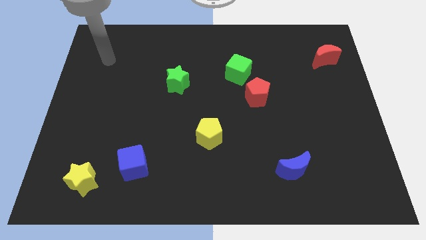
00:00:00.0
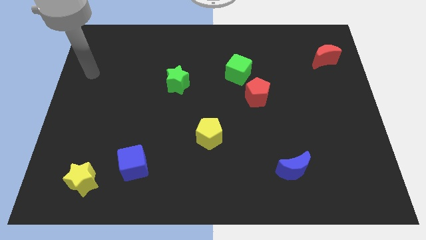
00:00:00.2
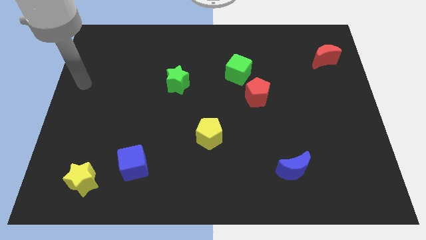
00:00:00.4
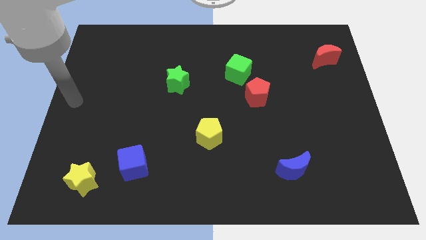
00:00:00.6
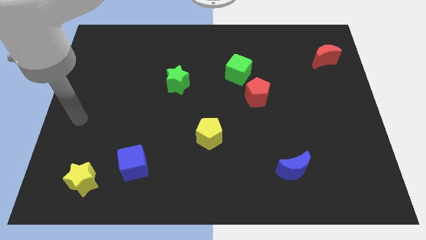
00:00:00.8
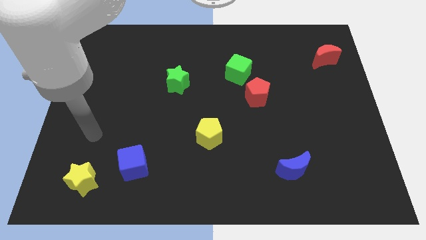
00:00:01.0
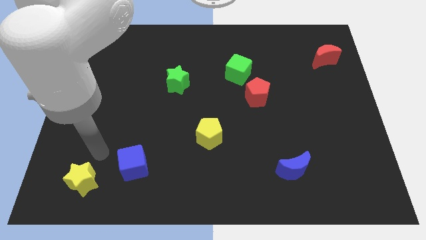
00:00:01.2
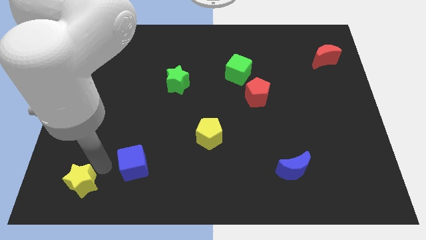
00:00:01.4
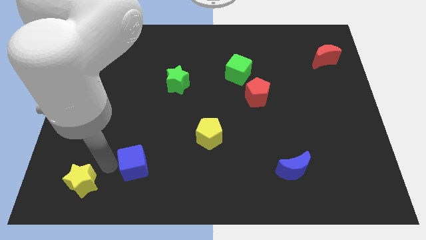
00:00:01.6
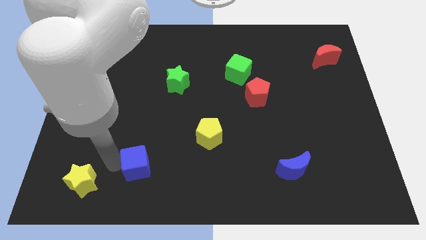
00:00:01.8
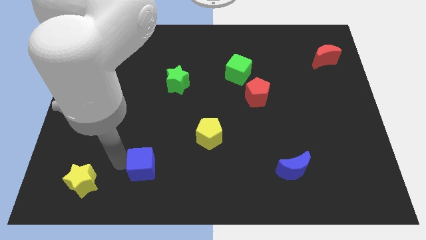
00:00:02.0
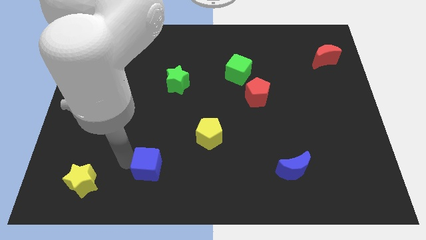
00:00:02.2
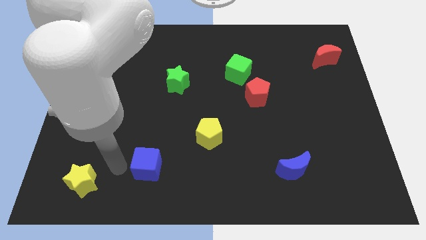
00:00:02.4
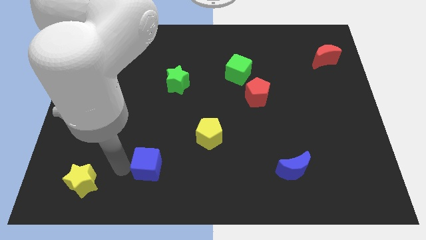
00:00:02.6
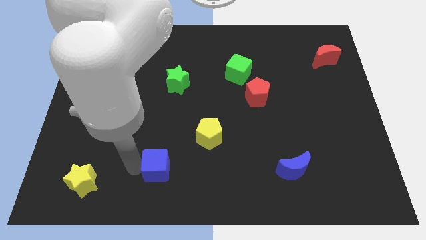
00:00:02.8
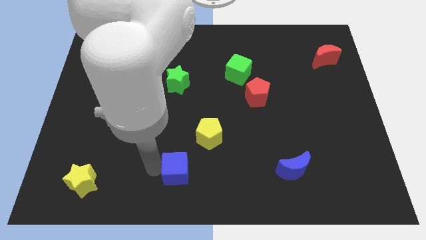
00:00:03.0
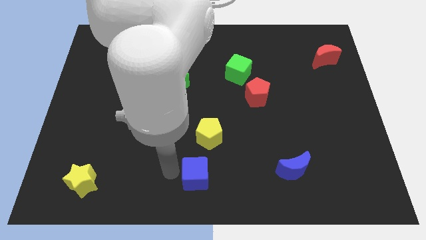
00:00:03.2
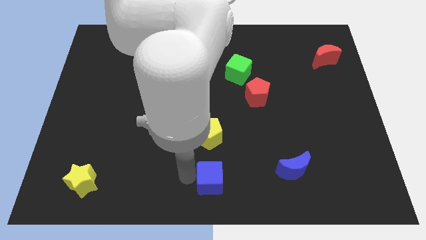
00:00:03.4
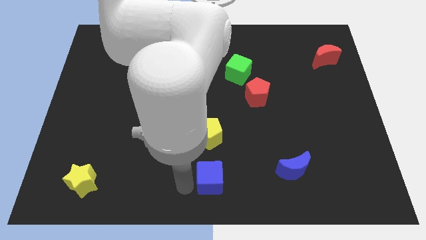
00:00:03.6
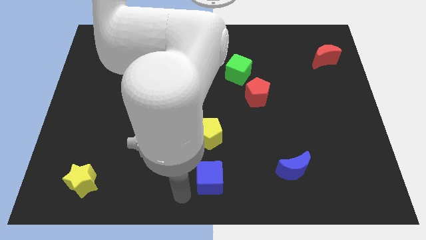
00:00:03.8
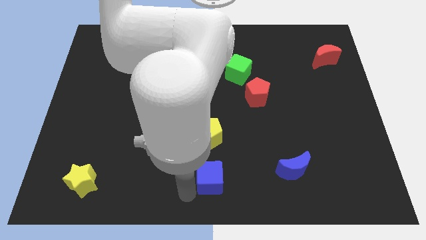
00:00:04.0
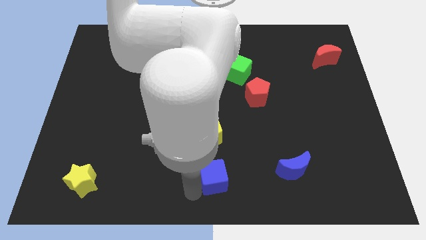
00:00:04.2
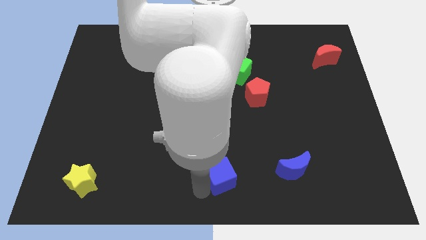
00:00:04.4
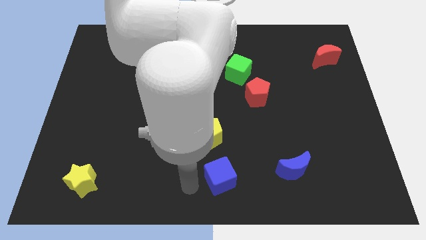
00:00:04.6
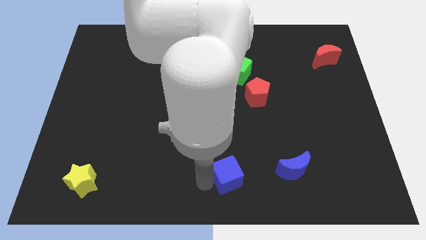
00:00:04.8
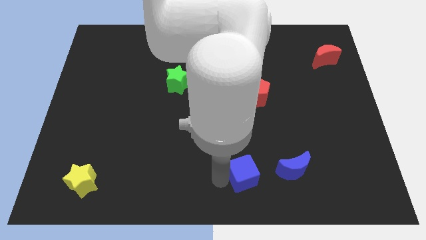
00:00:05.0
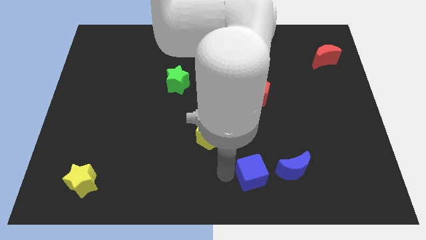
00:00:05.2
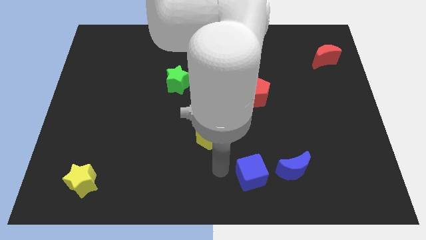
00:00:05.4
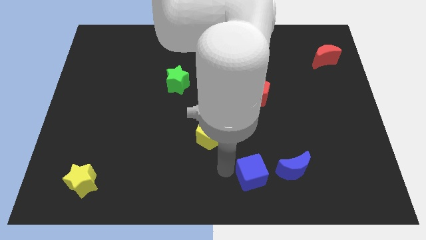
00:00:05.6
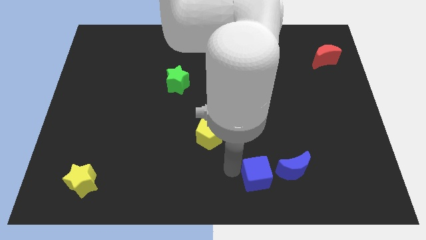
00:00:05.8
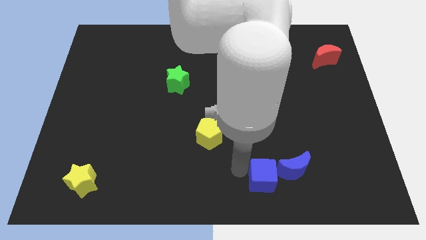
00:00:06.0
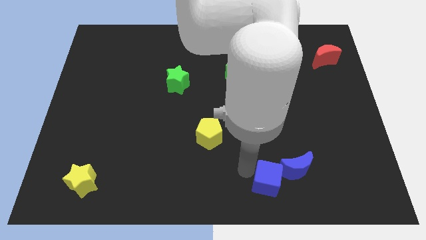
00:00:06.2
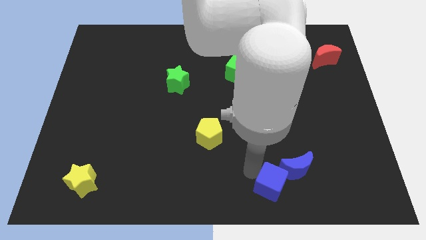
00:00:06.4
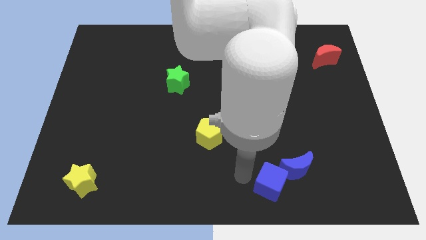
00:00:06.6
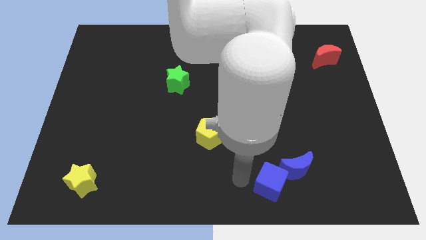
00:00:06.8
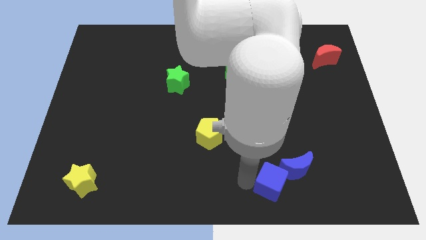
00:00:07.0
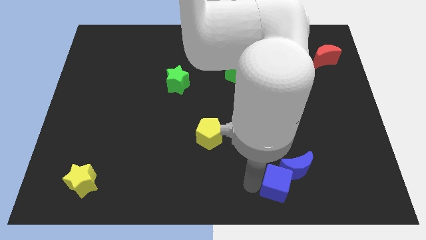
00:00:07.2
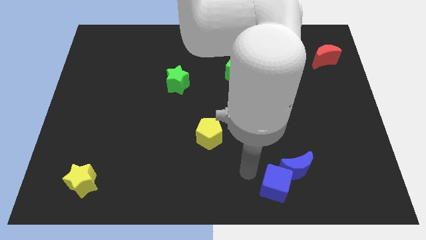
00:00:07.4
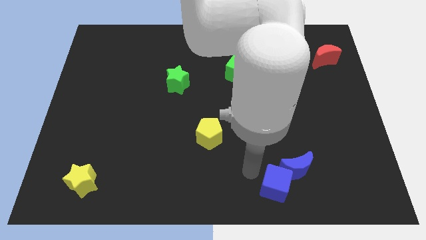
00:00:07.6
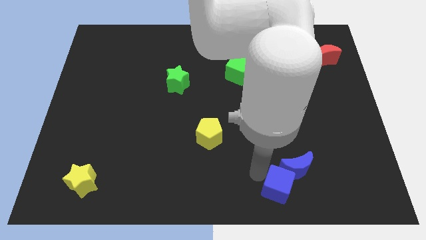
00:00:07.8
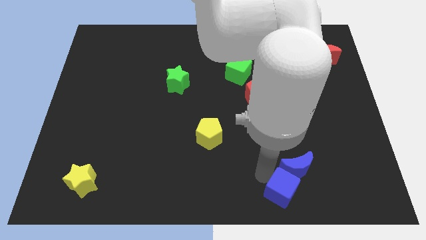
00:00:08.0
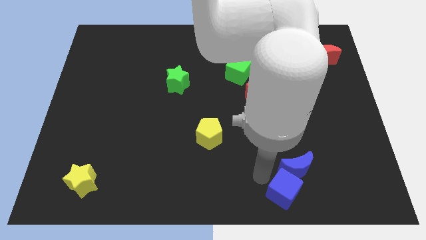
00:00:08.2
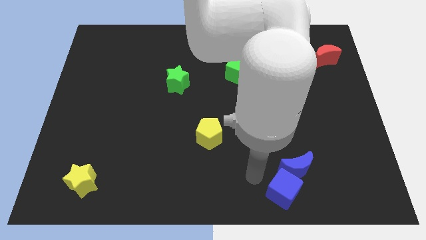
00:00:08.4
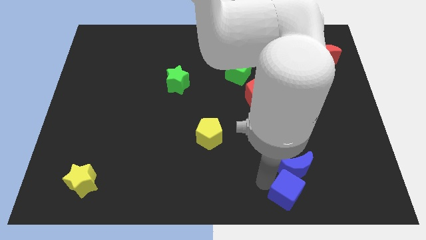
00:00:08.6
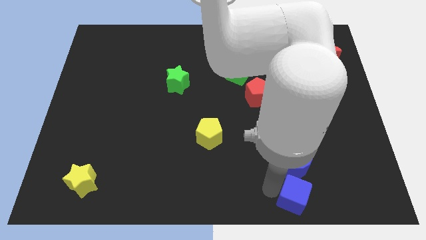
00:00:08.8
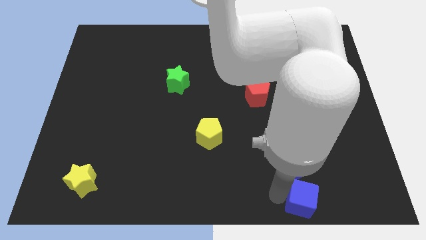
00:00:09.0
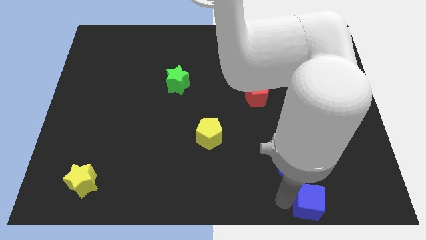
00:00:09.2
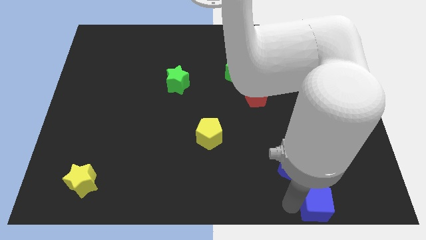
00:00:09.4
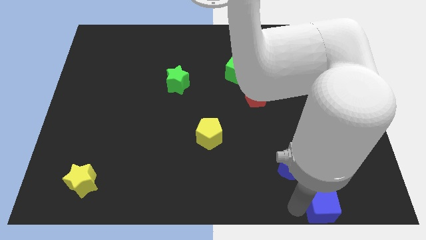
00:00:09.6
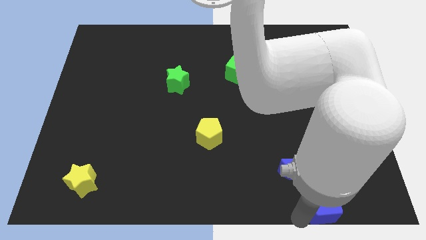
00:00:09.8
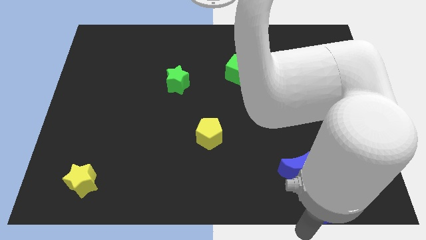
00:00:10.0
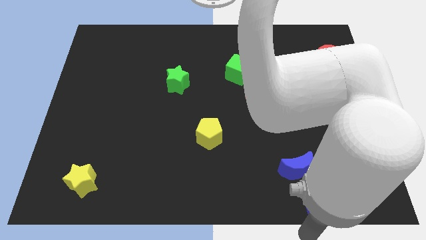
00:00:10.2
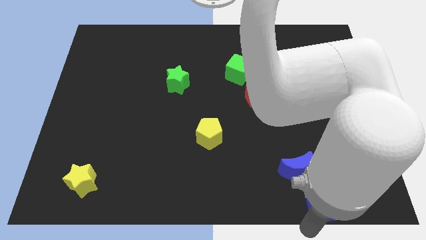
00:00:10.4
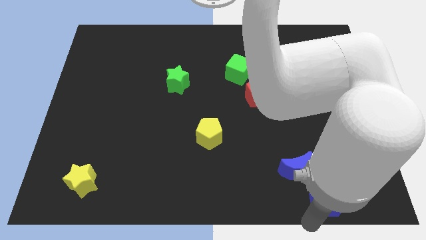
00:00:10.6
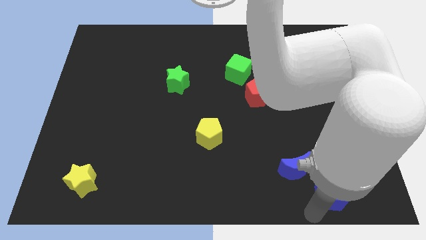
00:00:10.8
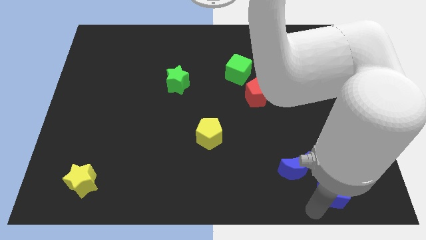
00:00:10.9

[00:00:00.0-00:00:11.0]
move the blue cube right of the blue moon

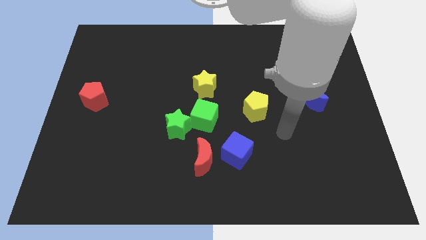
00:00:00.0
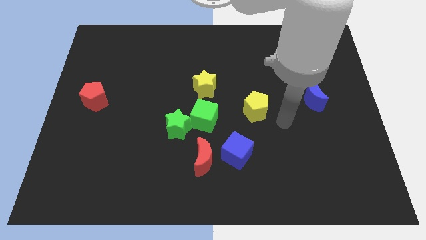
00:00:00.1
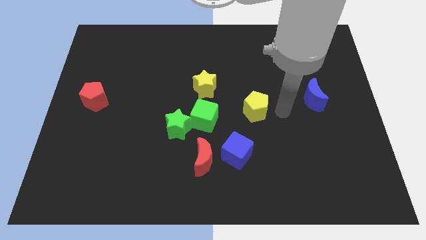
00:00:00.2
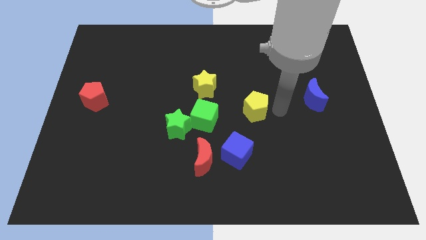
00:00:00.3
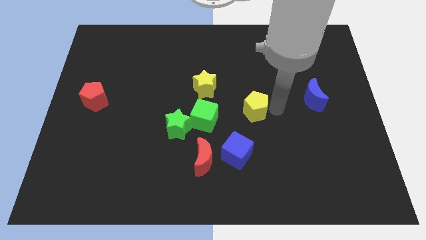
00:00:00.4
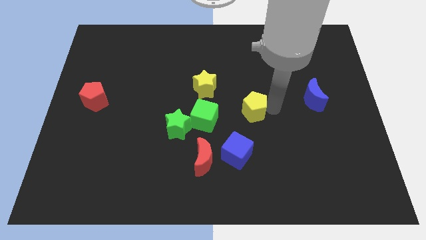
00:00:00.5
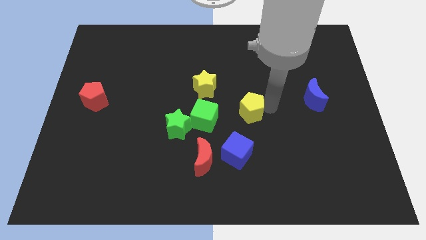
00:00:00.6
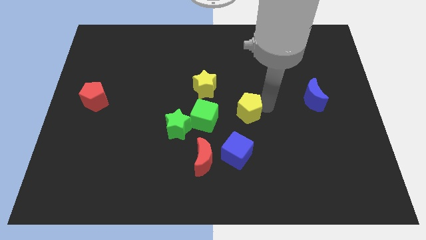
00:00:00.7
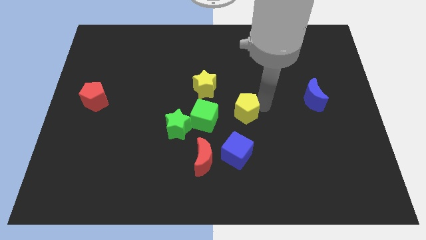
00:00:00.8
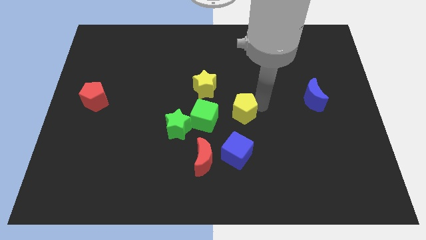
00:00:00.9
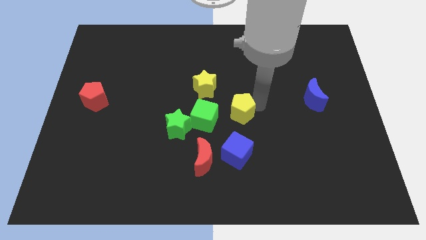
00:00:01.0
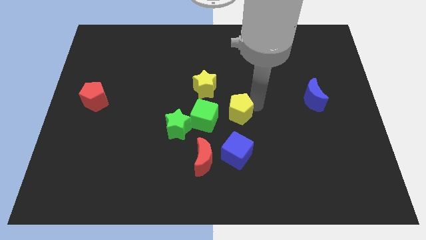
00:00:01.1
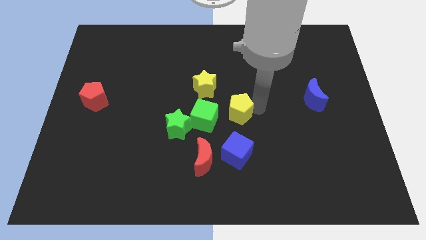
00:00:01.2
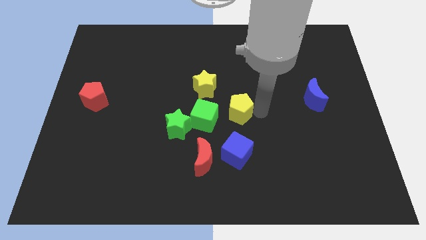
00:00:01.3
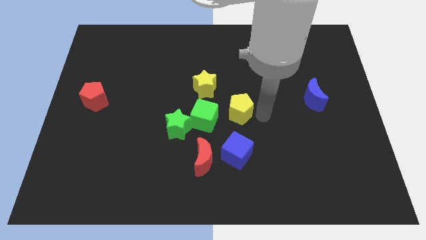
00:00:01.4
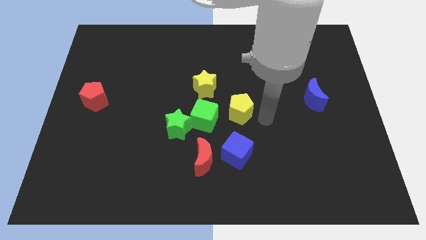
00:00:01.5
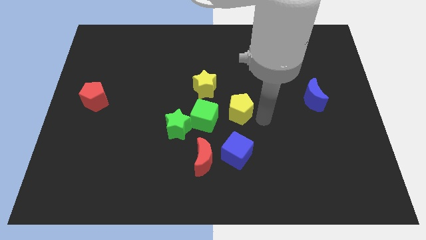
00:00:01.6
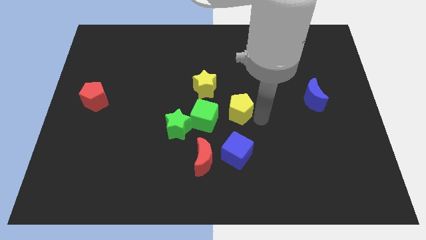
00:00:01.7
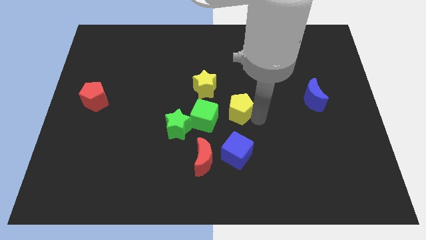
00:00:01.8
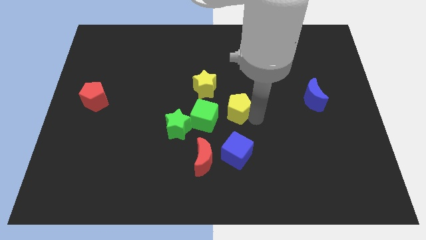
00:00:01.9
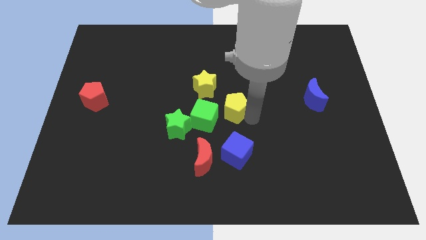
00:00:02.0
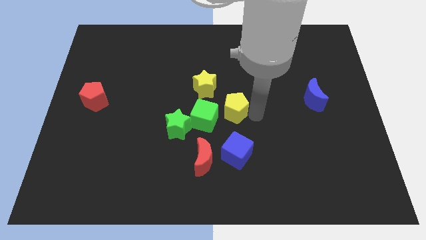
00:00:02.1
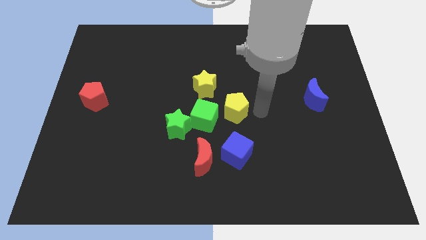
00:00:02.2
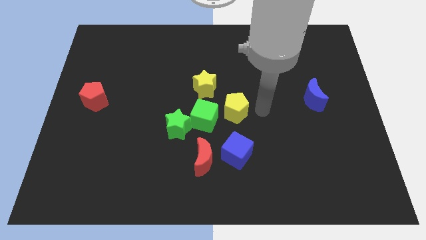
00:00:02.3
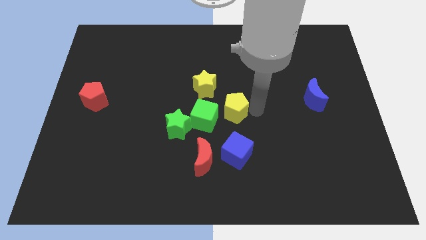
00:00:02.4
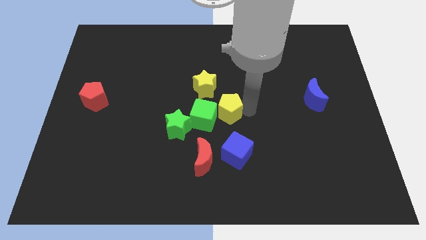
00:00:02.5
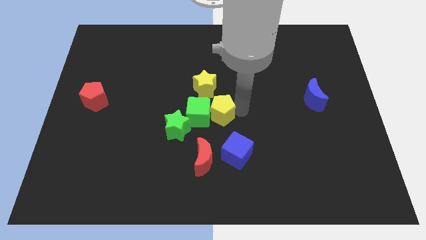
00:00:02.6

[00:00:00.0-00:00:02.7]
move the yellow pentagon to the top right of the green star
